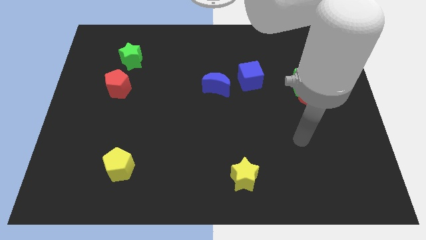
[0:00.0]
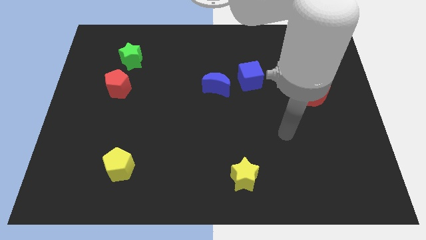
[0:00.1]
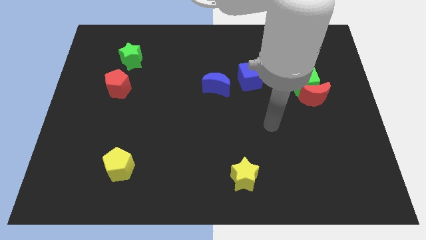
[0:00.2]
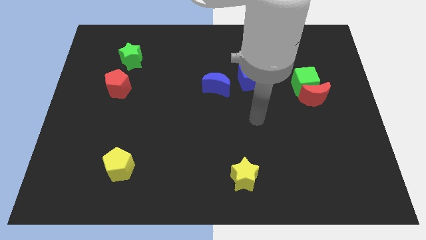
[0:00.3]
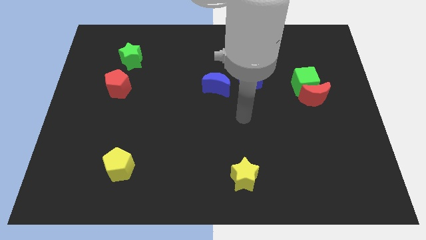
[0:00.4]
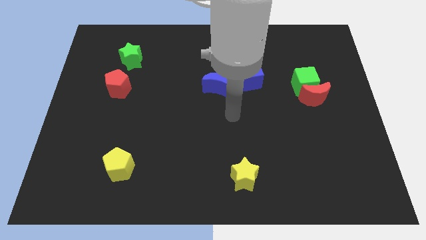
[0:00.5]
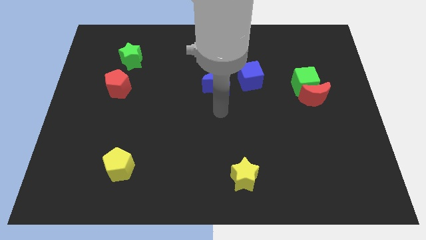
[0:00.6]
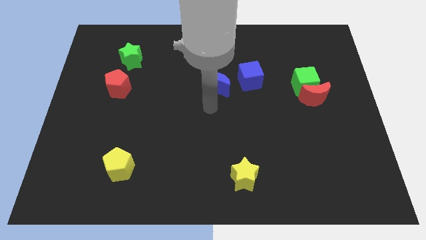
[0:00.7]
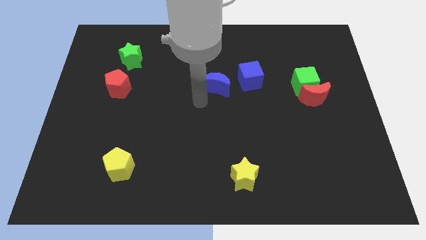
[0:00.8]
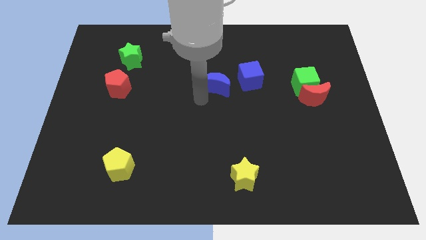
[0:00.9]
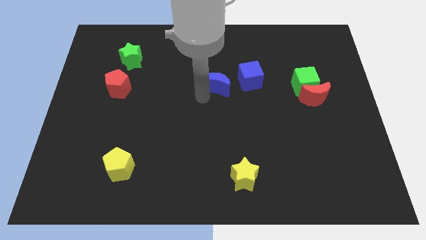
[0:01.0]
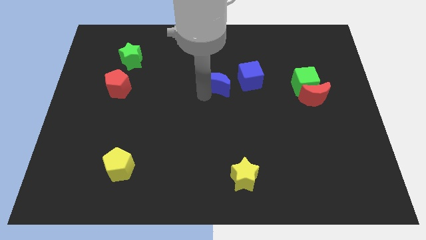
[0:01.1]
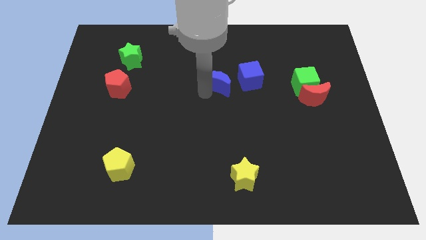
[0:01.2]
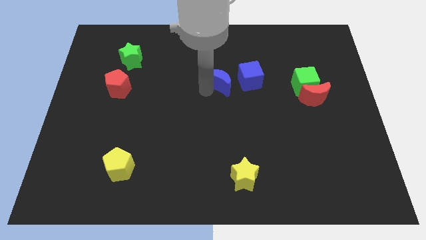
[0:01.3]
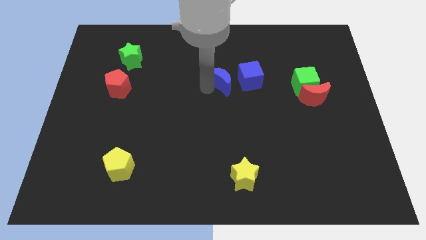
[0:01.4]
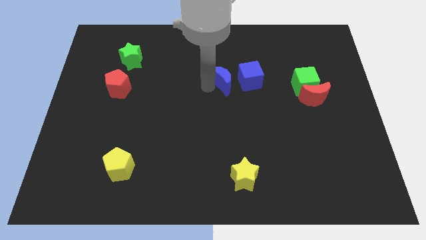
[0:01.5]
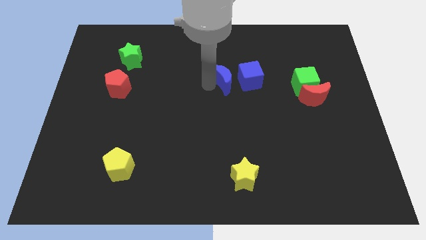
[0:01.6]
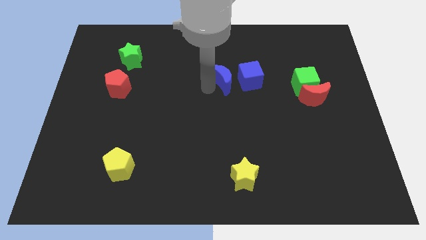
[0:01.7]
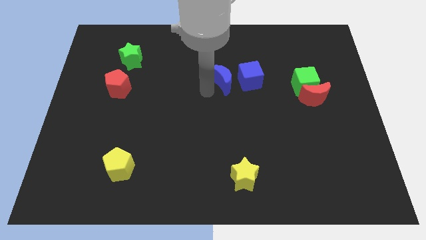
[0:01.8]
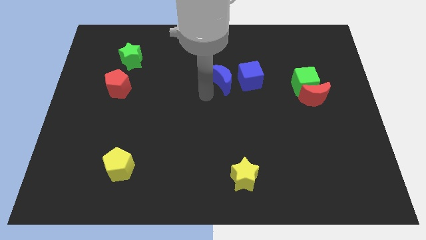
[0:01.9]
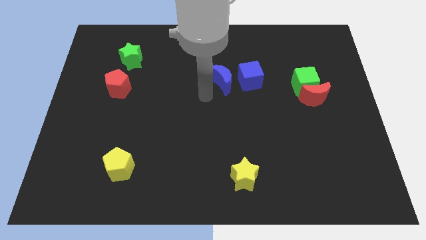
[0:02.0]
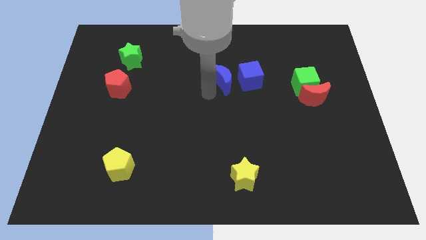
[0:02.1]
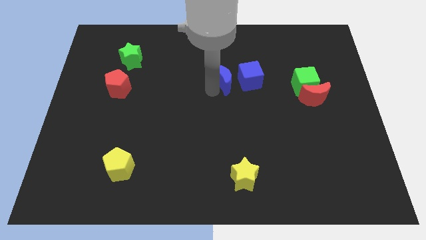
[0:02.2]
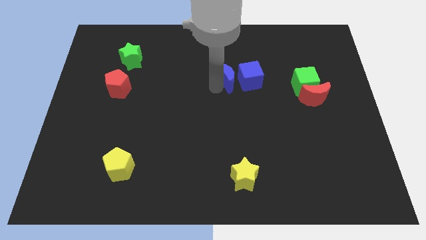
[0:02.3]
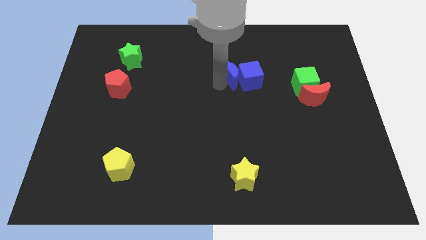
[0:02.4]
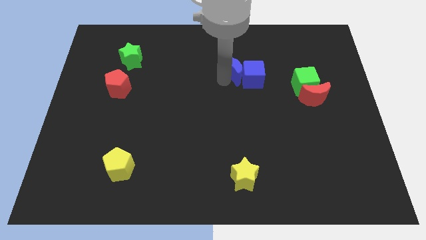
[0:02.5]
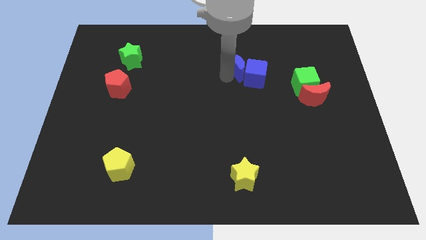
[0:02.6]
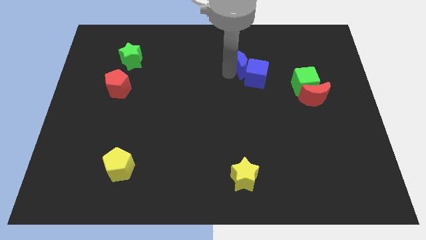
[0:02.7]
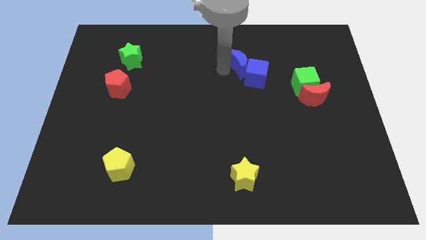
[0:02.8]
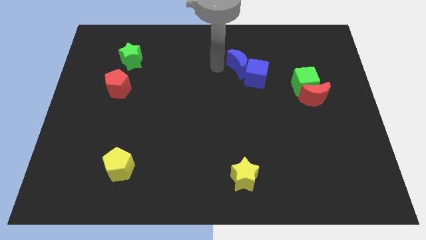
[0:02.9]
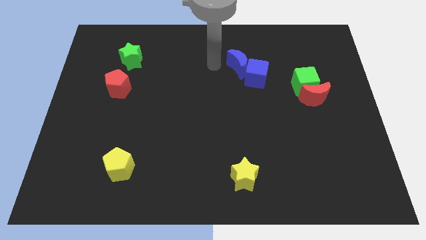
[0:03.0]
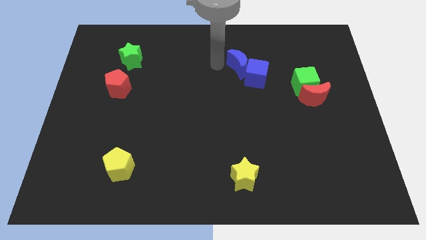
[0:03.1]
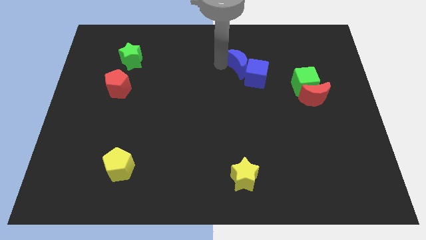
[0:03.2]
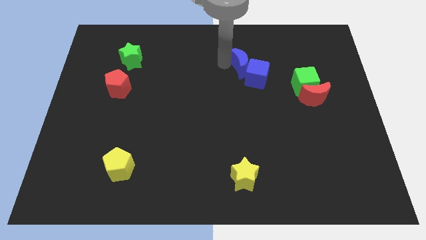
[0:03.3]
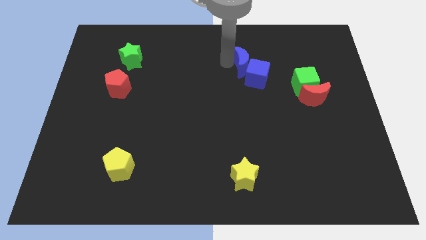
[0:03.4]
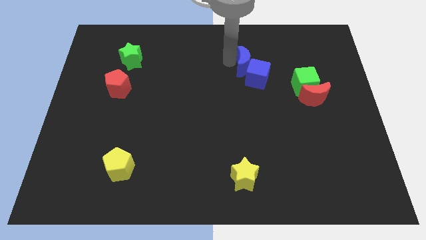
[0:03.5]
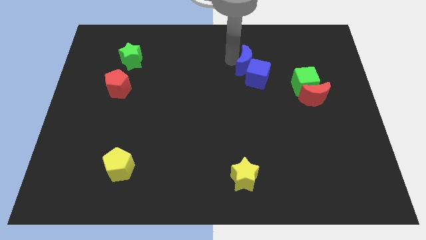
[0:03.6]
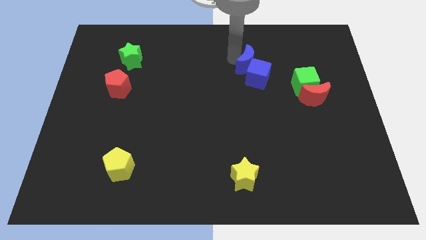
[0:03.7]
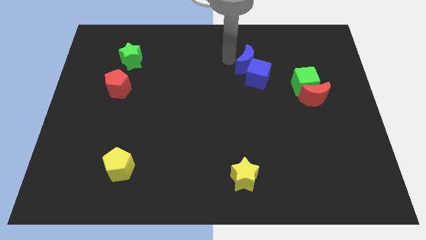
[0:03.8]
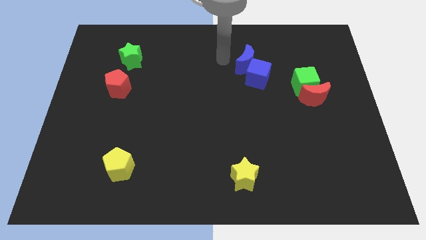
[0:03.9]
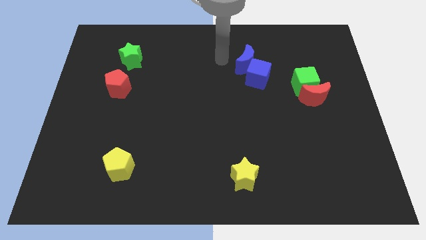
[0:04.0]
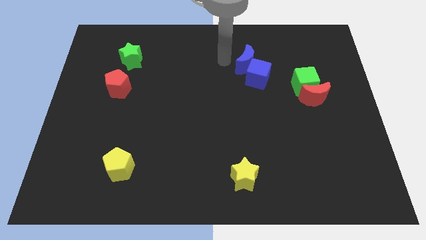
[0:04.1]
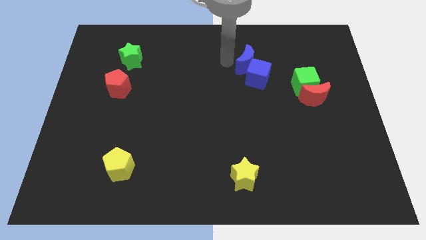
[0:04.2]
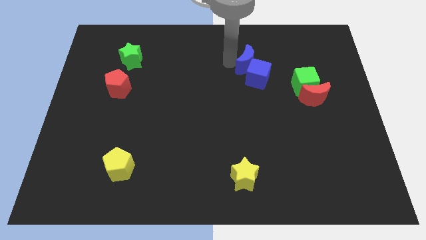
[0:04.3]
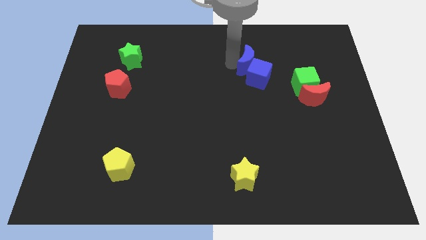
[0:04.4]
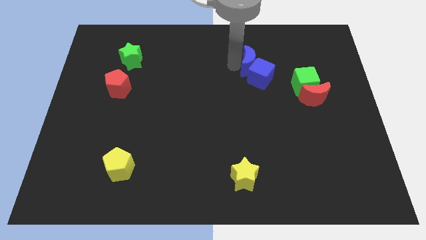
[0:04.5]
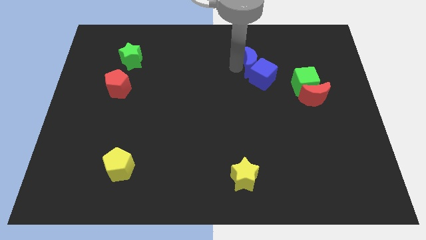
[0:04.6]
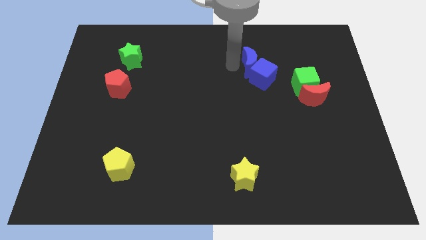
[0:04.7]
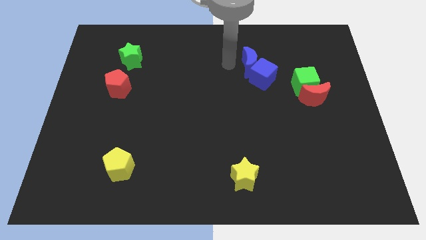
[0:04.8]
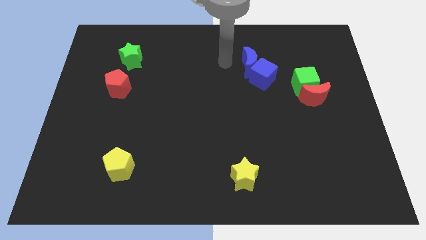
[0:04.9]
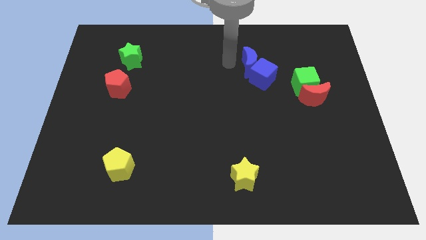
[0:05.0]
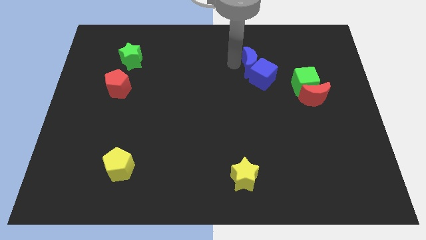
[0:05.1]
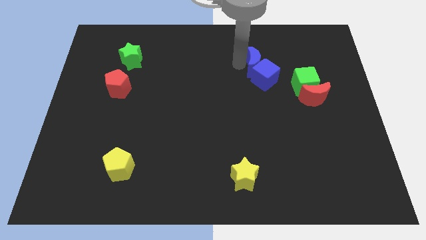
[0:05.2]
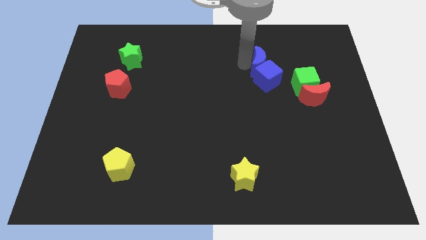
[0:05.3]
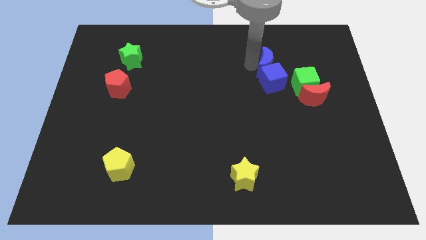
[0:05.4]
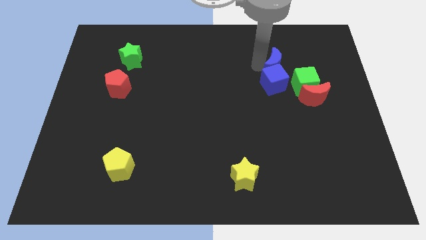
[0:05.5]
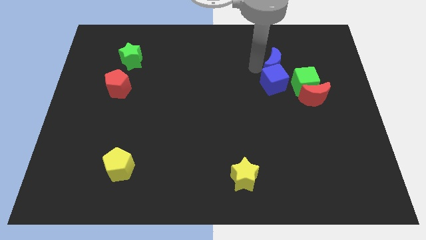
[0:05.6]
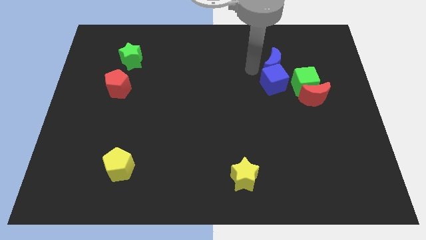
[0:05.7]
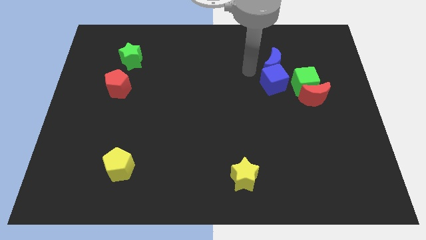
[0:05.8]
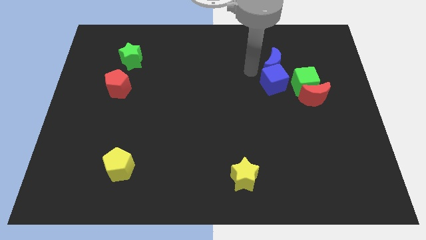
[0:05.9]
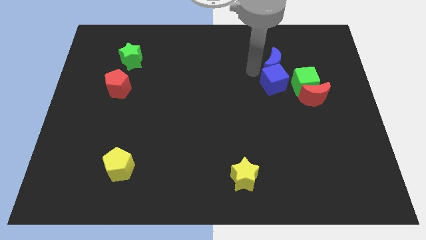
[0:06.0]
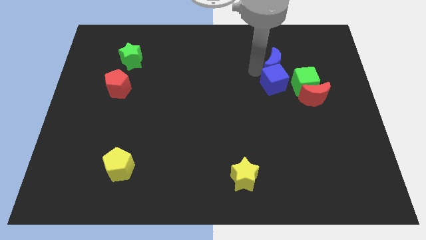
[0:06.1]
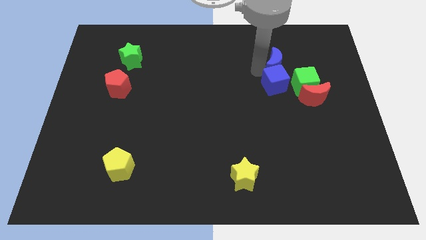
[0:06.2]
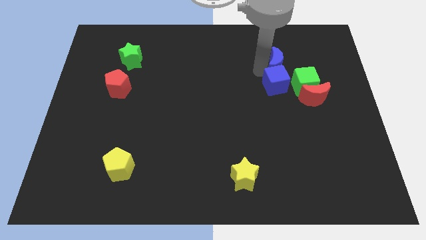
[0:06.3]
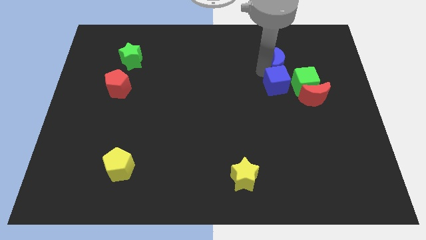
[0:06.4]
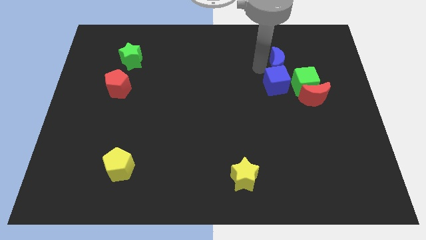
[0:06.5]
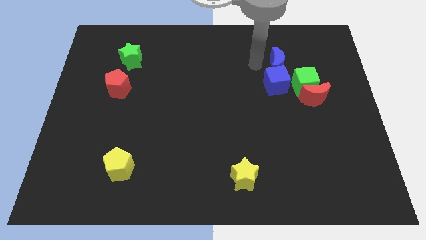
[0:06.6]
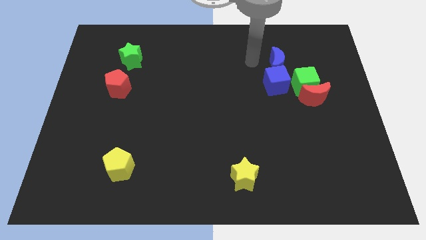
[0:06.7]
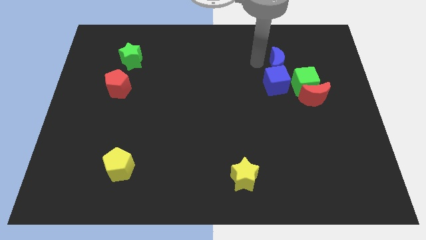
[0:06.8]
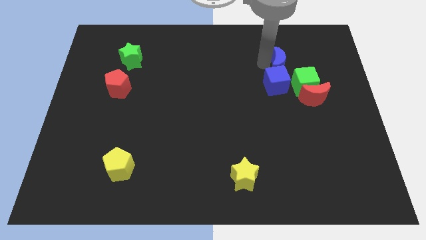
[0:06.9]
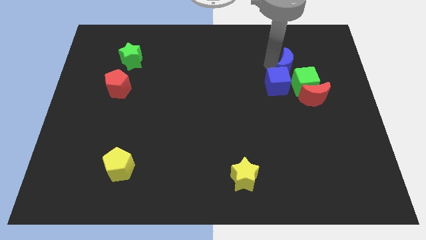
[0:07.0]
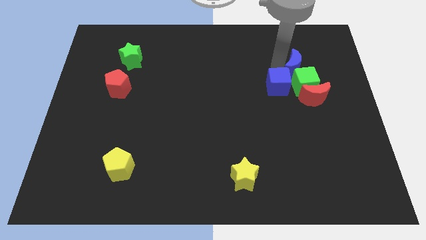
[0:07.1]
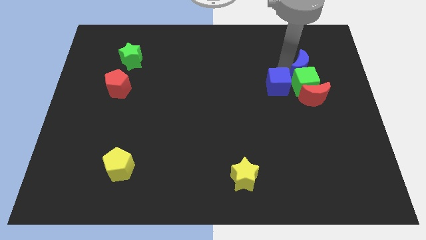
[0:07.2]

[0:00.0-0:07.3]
move the blue moon to the top right of the green cube

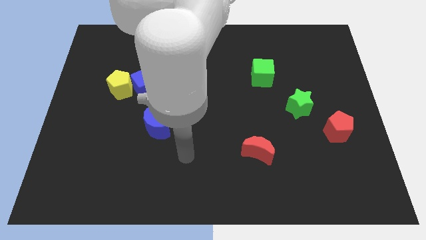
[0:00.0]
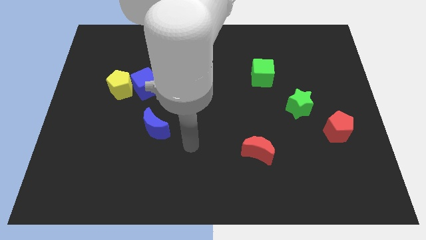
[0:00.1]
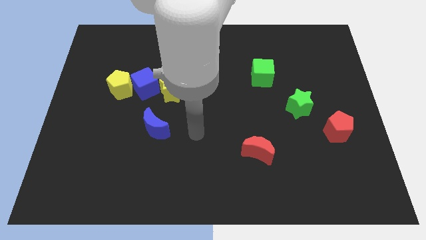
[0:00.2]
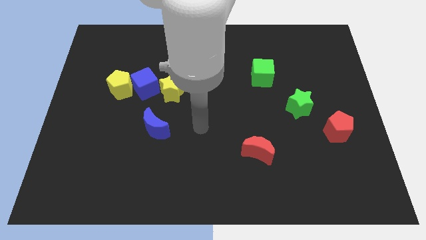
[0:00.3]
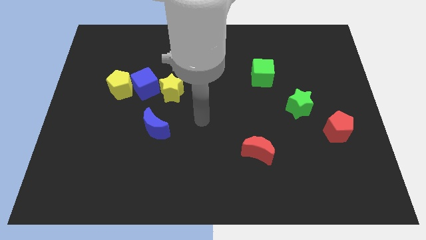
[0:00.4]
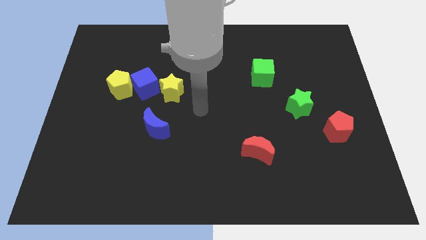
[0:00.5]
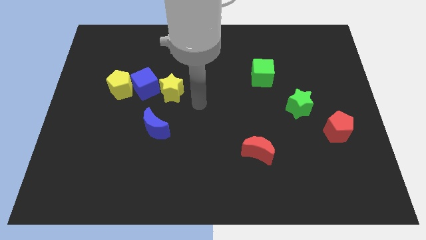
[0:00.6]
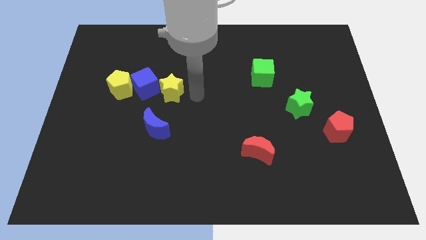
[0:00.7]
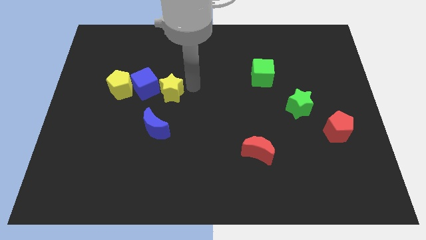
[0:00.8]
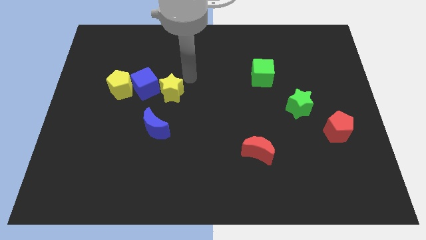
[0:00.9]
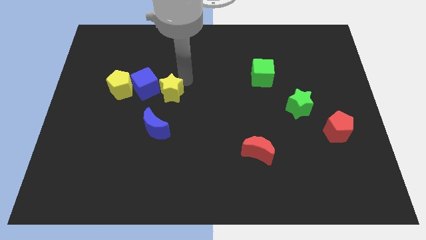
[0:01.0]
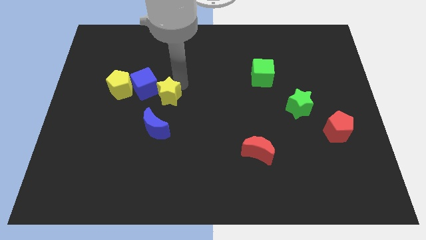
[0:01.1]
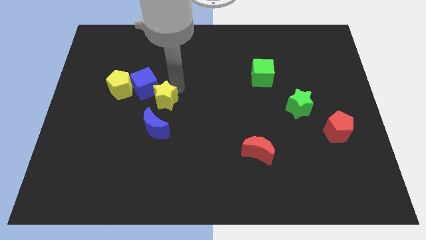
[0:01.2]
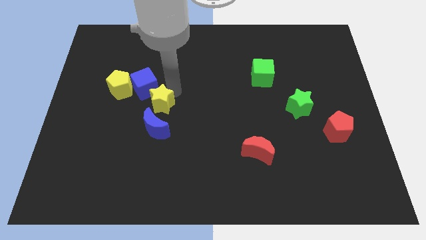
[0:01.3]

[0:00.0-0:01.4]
put the yellow star below the blue cube
